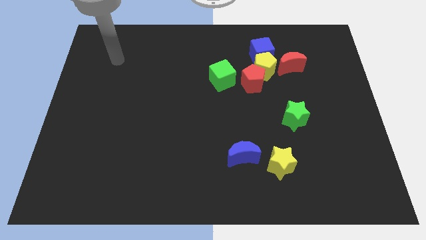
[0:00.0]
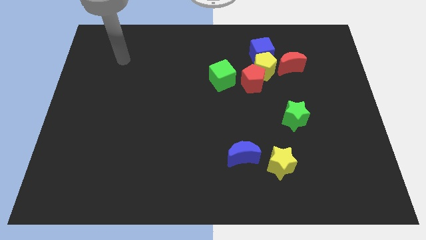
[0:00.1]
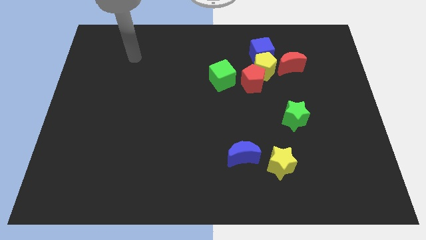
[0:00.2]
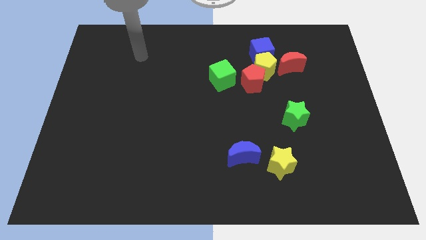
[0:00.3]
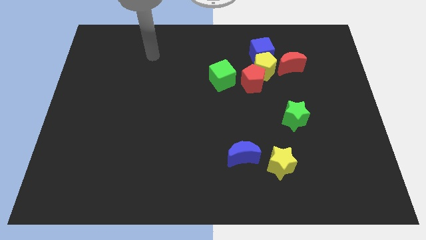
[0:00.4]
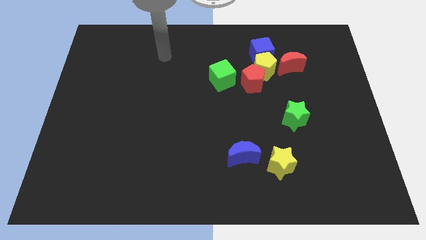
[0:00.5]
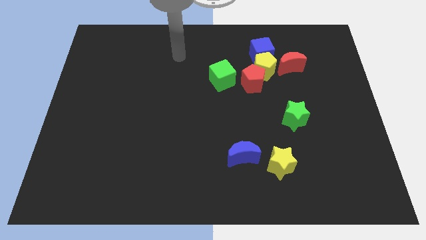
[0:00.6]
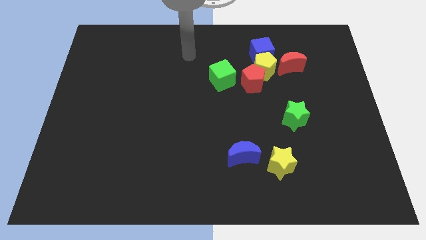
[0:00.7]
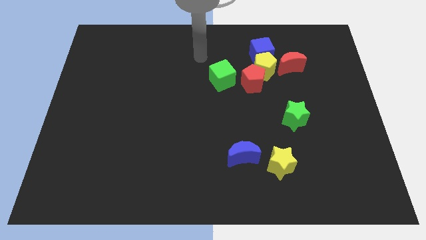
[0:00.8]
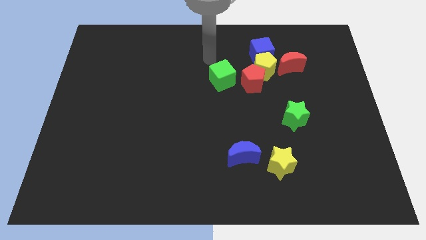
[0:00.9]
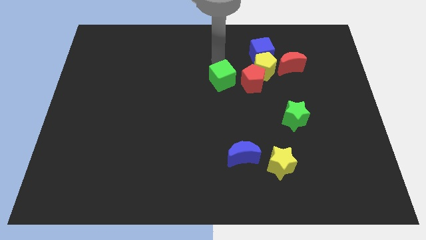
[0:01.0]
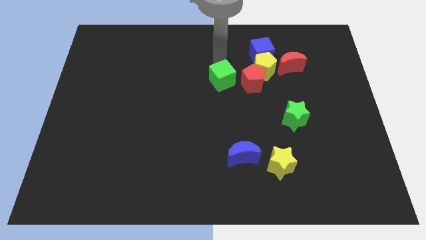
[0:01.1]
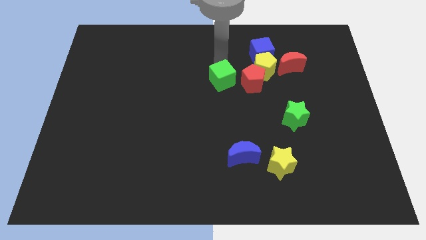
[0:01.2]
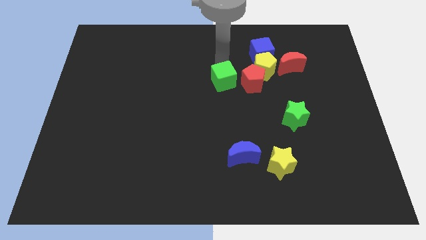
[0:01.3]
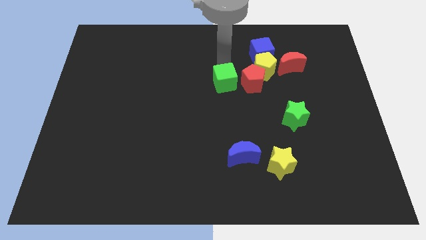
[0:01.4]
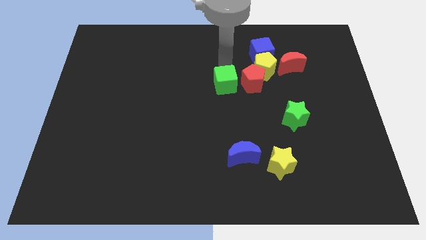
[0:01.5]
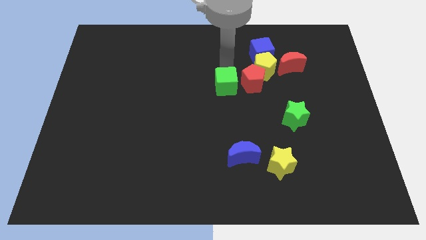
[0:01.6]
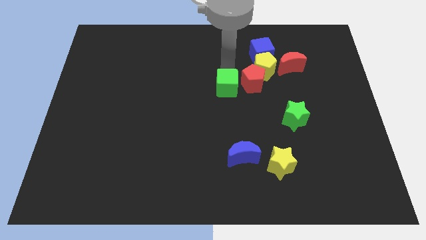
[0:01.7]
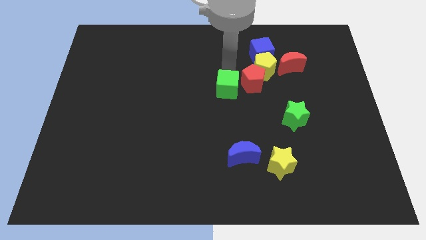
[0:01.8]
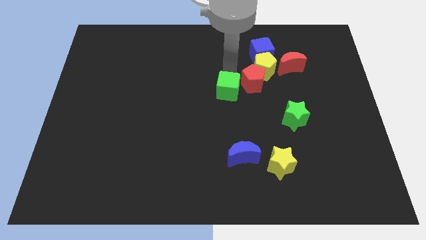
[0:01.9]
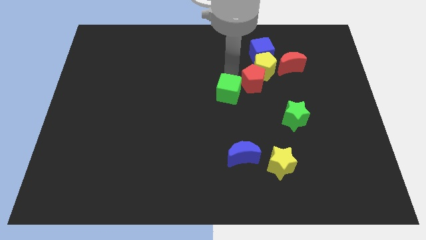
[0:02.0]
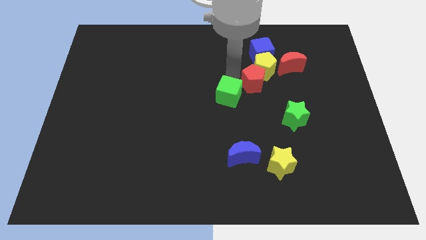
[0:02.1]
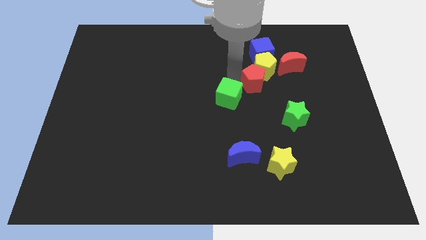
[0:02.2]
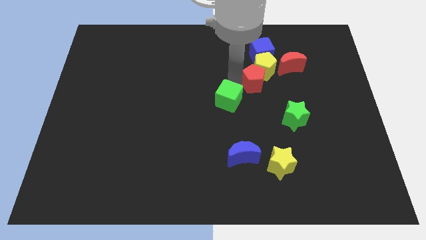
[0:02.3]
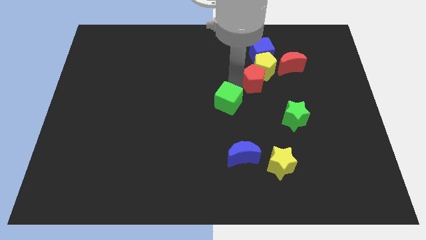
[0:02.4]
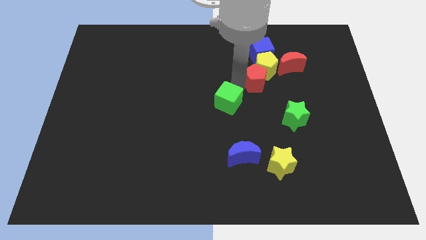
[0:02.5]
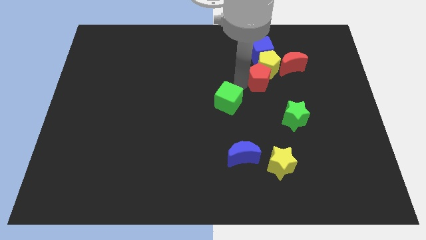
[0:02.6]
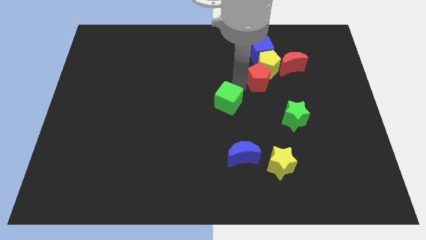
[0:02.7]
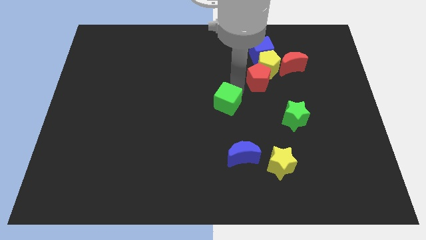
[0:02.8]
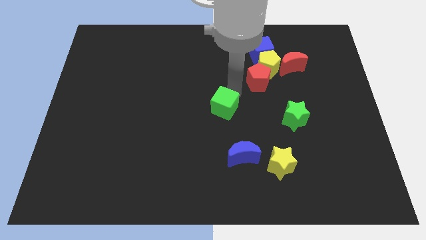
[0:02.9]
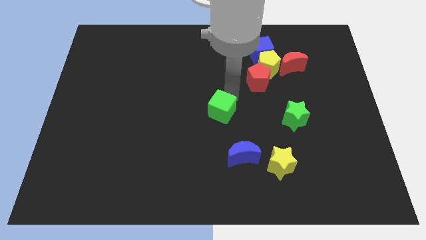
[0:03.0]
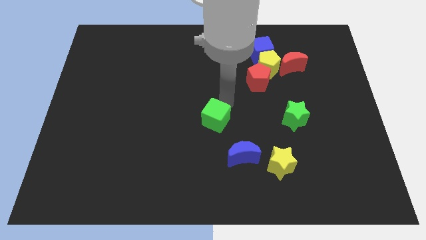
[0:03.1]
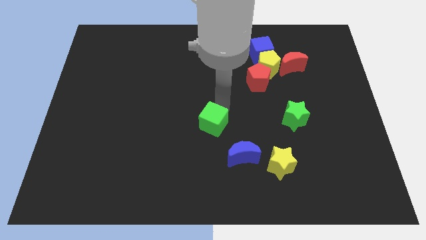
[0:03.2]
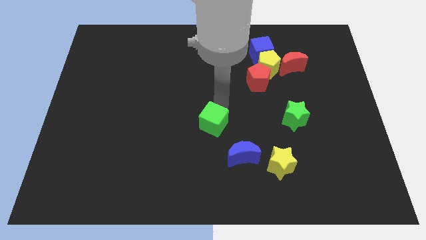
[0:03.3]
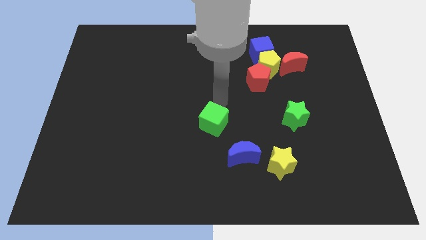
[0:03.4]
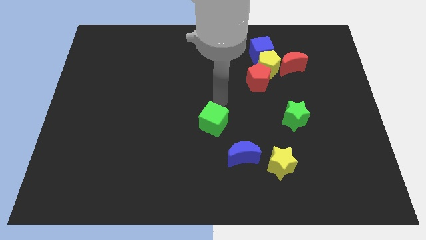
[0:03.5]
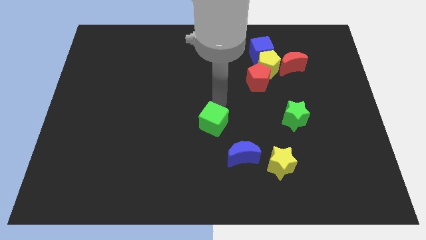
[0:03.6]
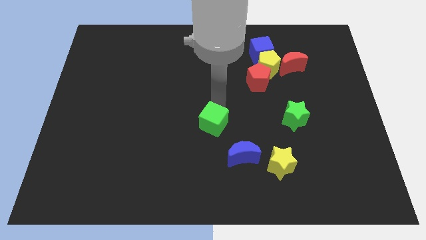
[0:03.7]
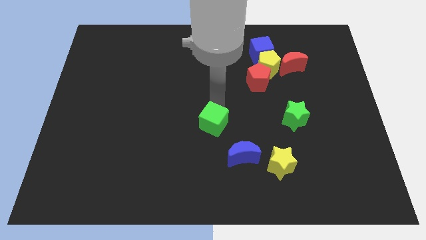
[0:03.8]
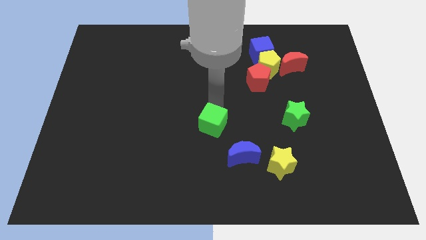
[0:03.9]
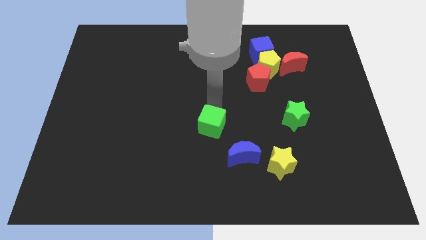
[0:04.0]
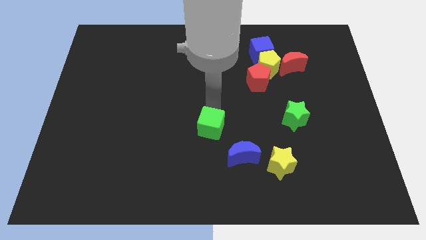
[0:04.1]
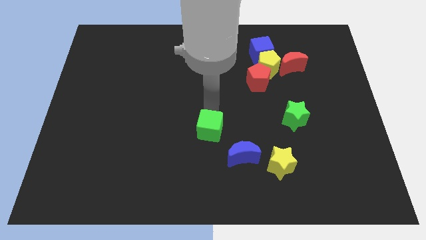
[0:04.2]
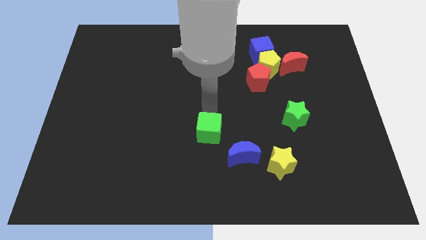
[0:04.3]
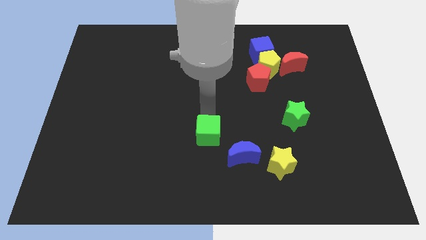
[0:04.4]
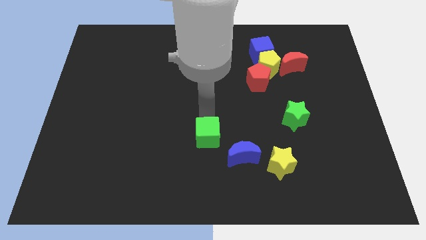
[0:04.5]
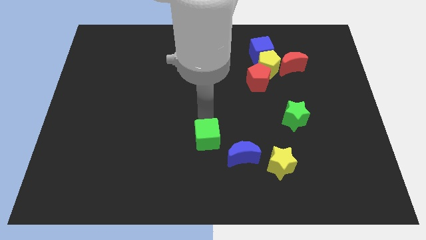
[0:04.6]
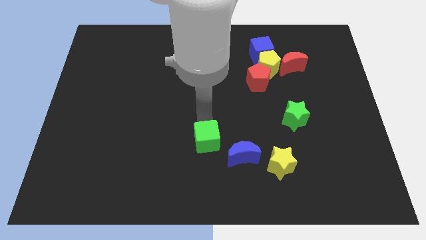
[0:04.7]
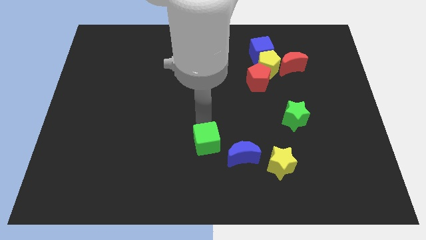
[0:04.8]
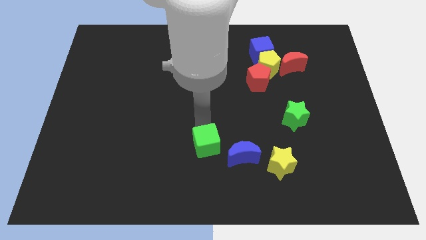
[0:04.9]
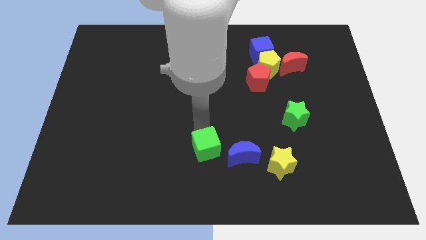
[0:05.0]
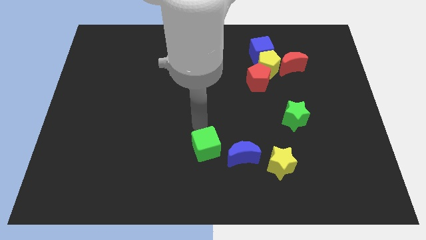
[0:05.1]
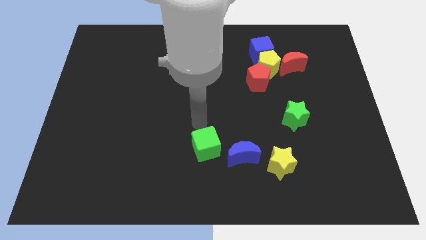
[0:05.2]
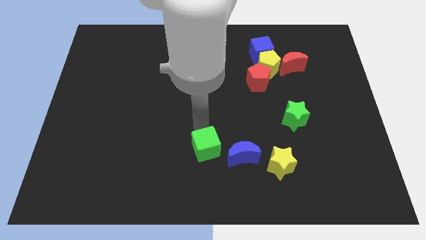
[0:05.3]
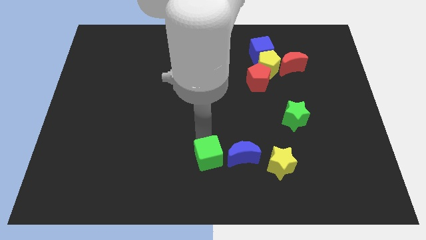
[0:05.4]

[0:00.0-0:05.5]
move the green cube to the bottom side
